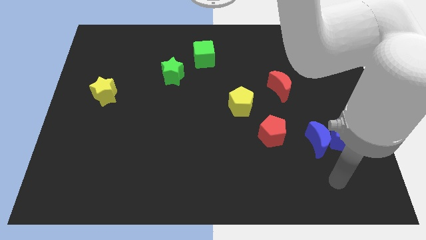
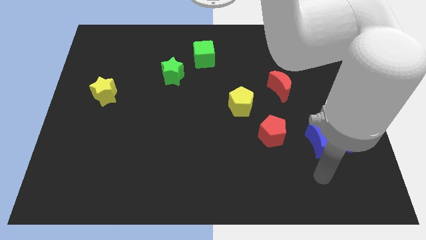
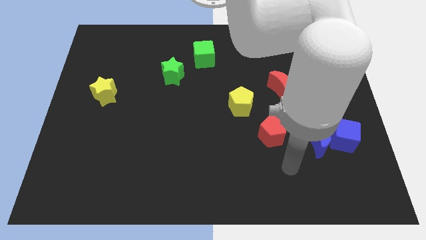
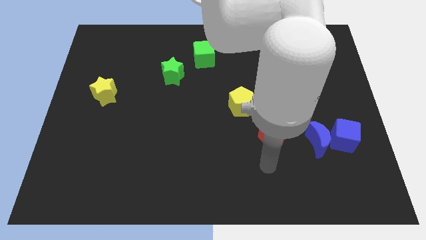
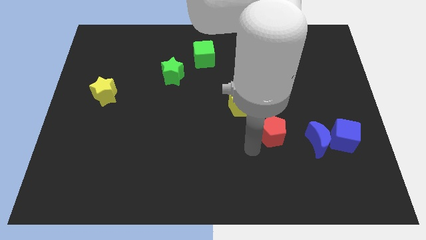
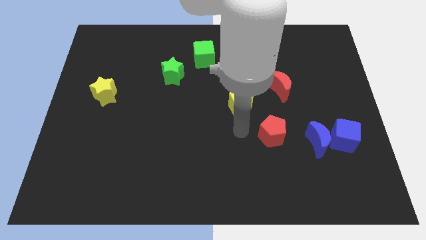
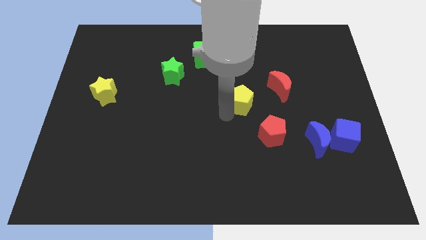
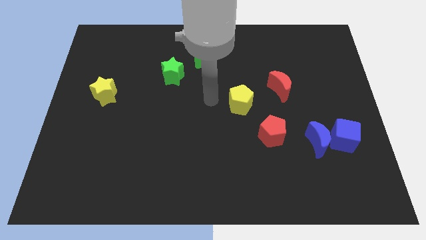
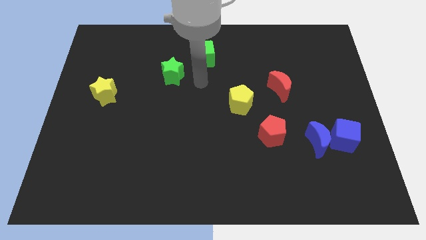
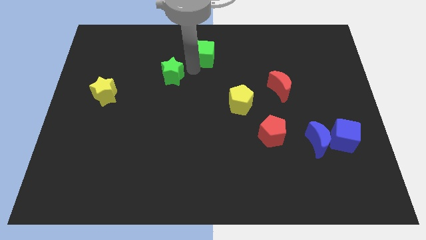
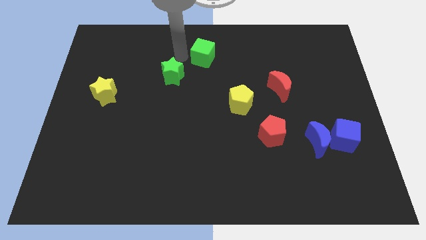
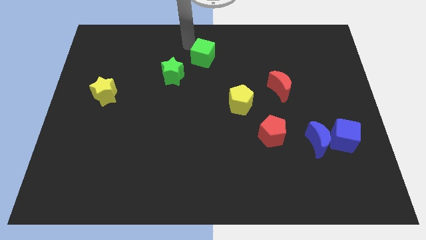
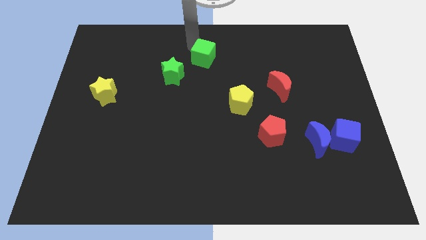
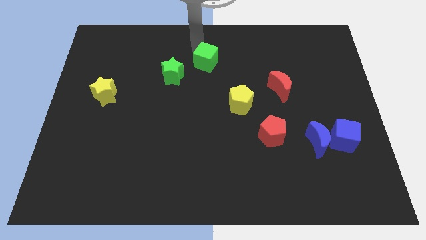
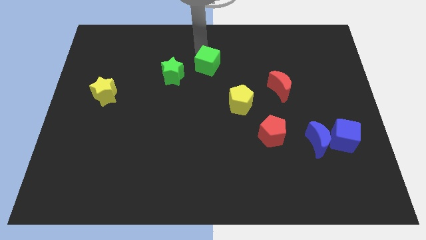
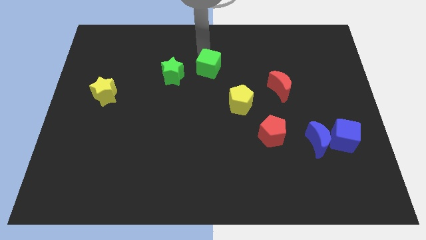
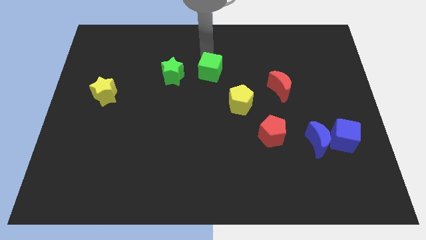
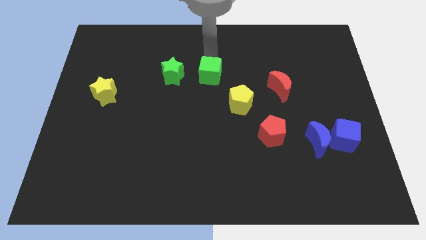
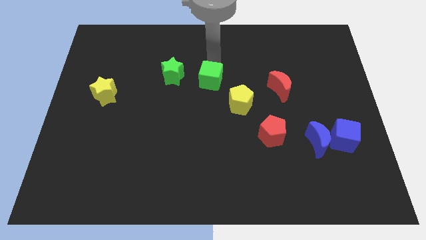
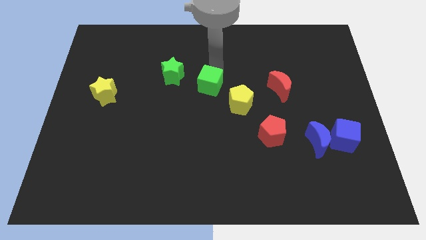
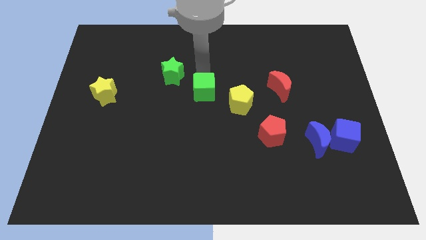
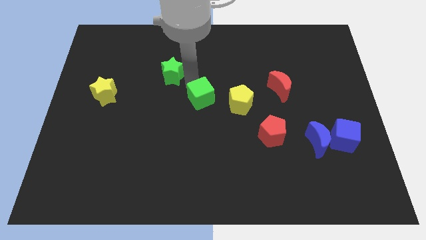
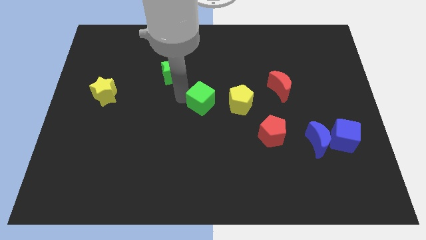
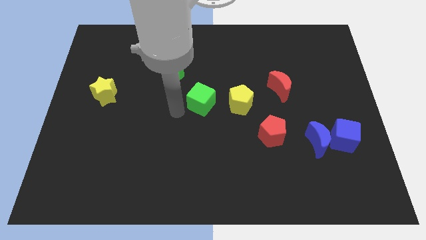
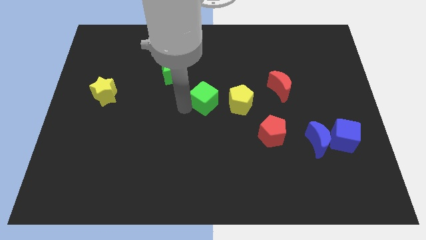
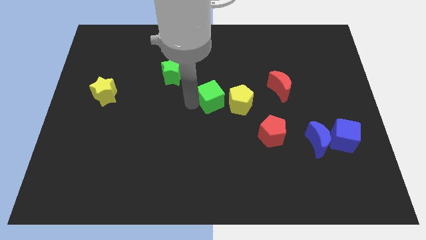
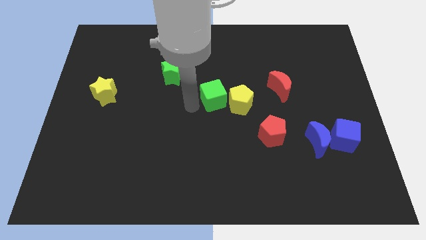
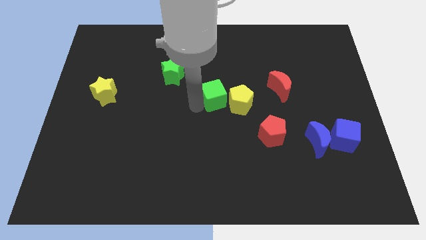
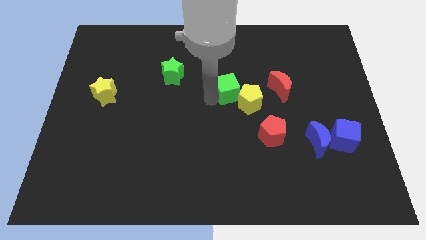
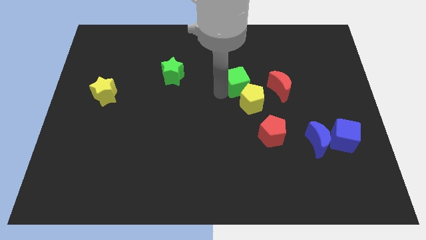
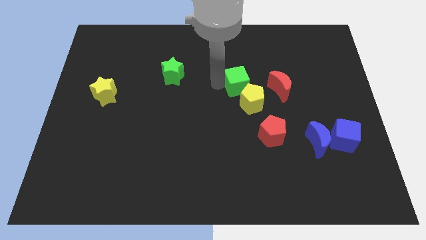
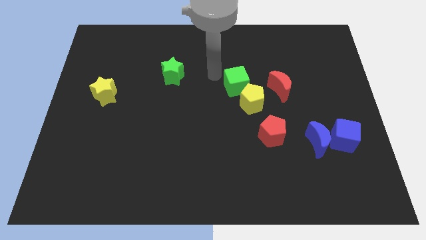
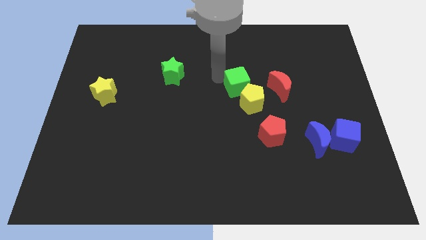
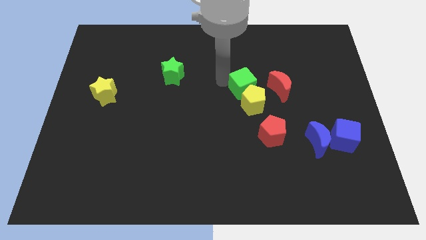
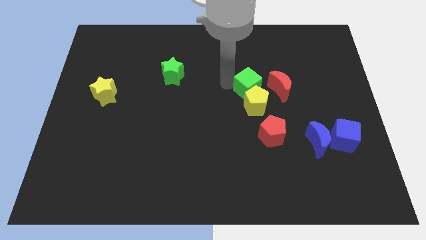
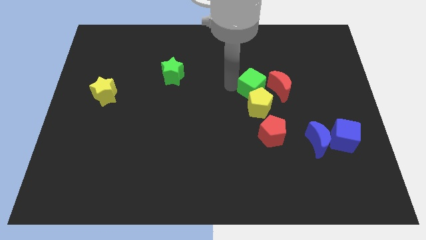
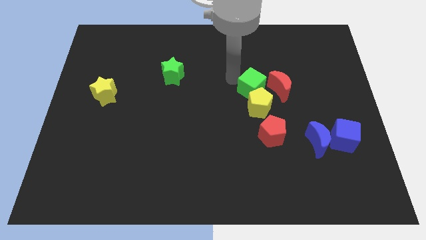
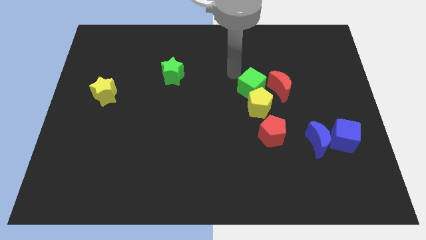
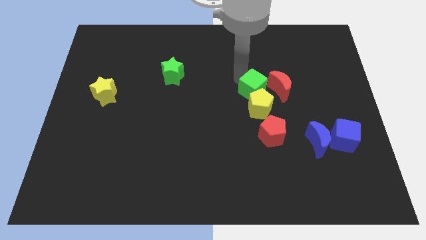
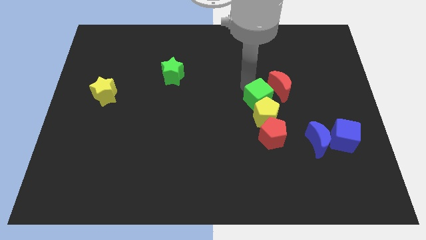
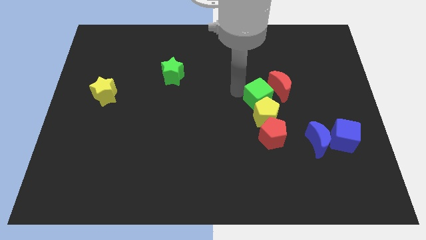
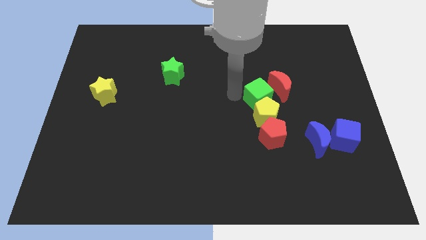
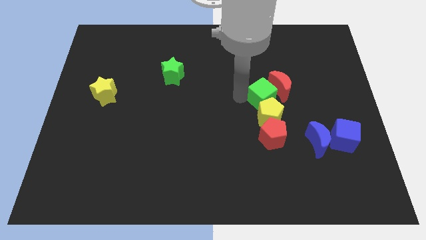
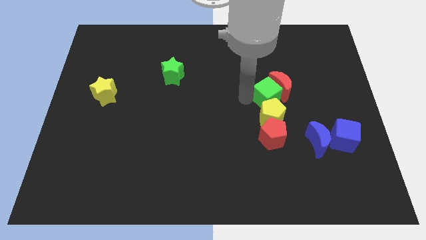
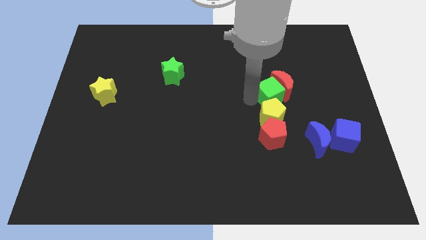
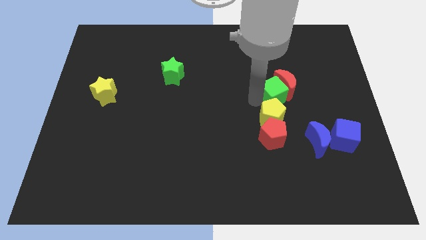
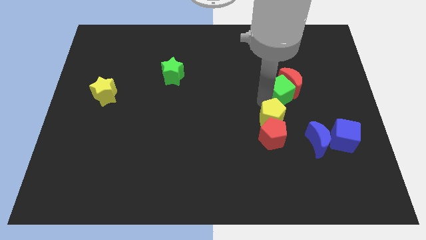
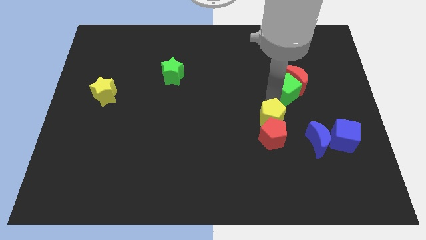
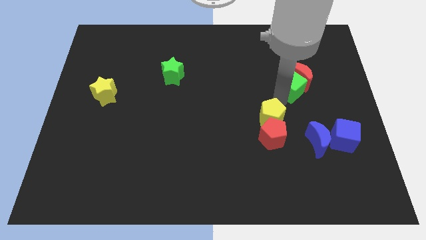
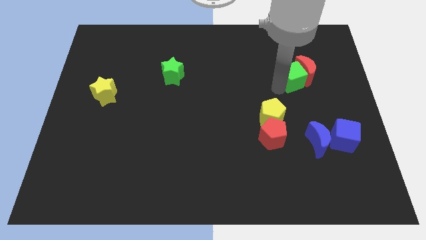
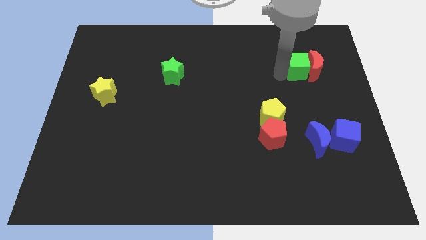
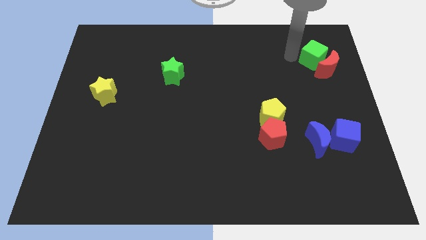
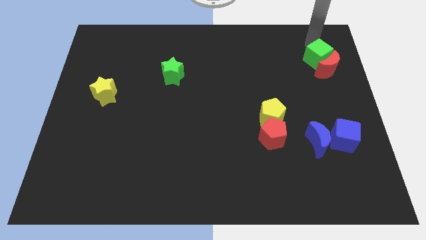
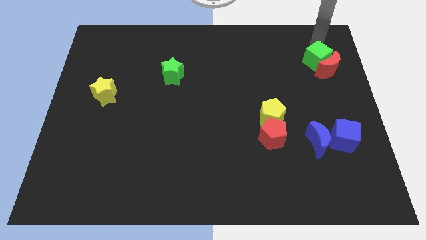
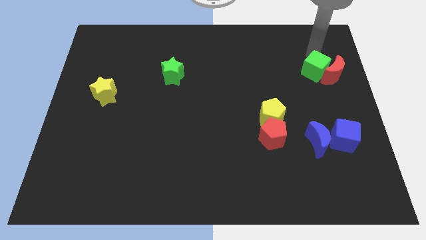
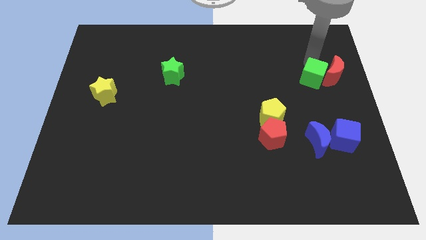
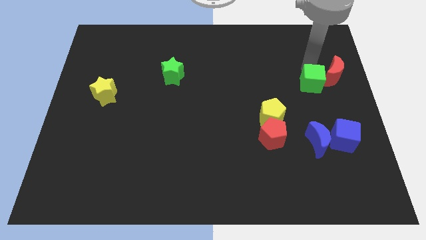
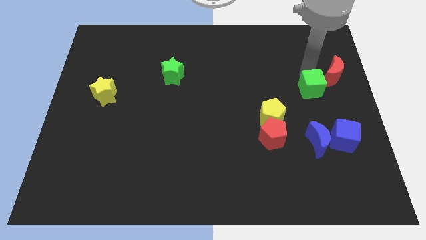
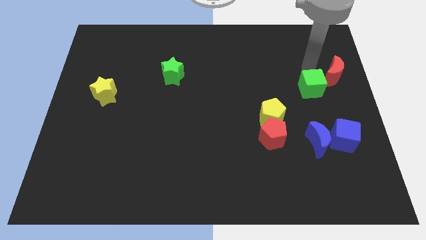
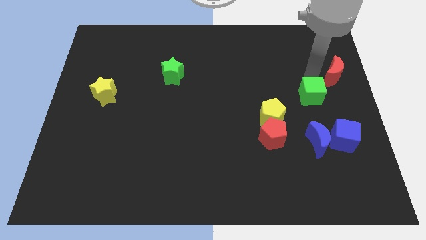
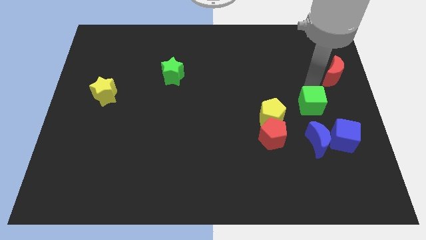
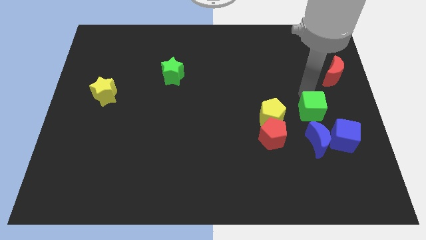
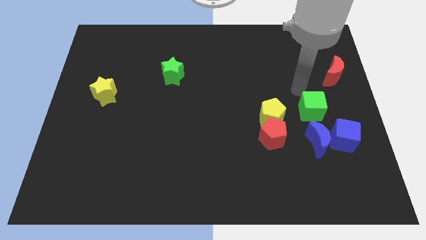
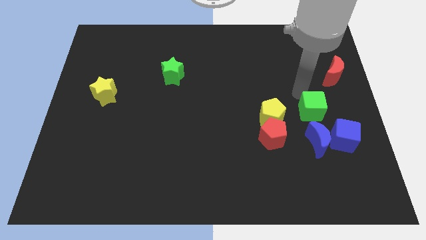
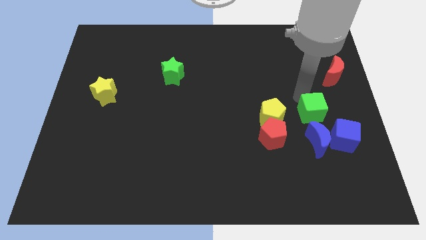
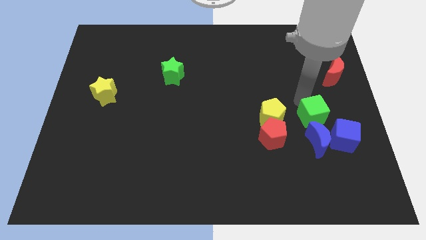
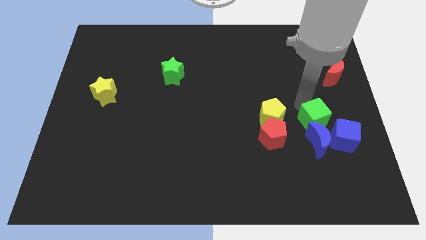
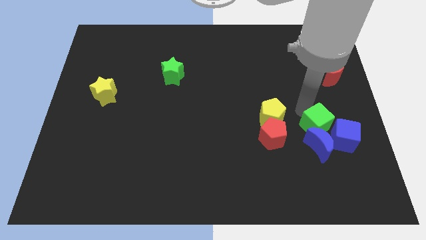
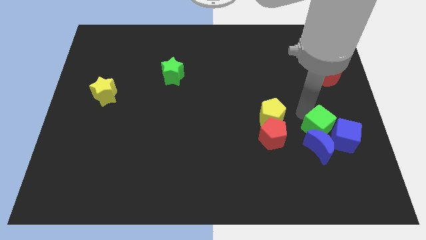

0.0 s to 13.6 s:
push the green cube to the blue cube

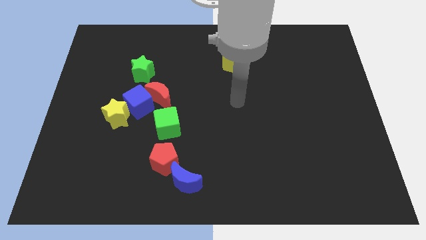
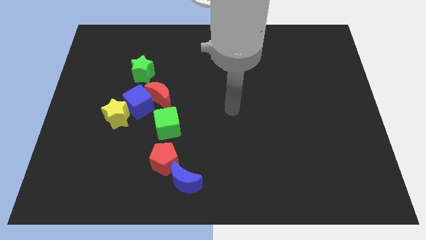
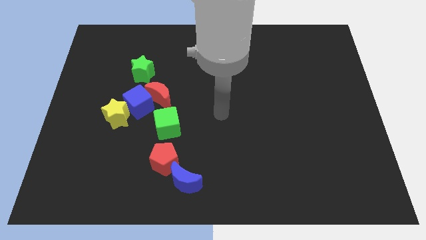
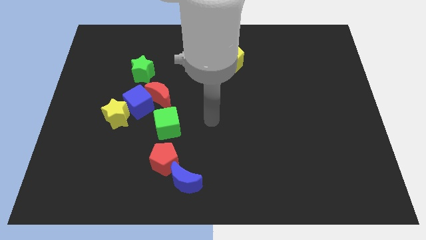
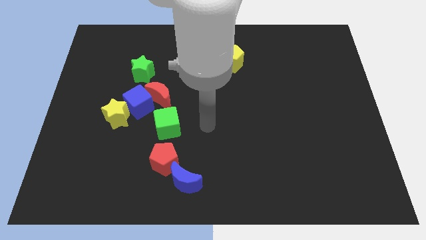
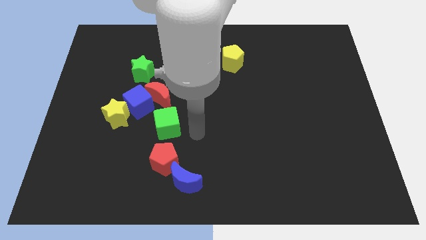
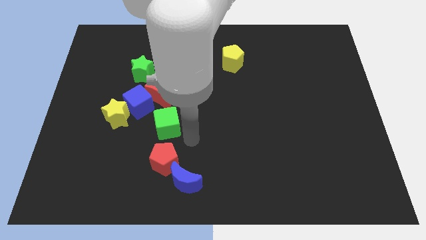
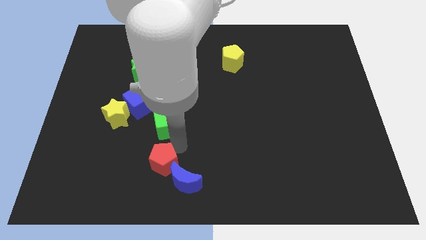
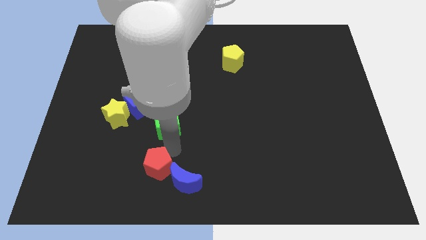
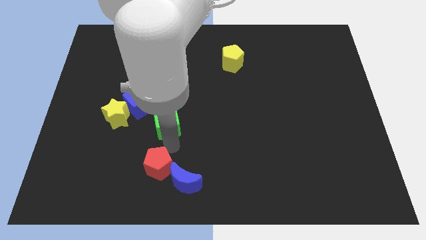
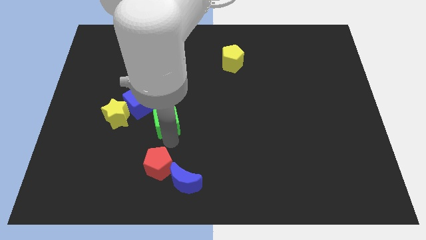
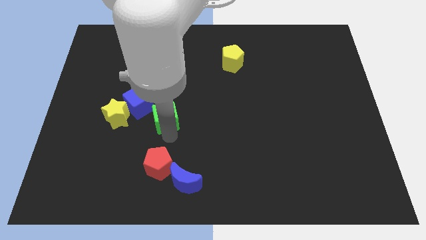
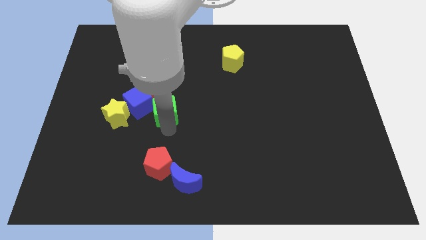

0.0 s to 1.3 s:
slide the green cube towards the red moon
